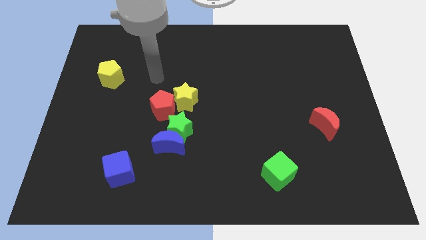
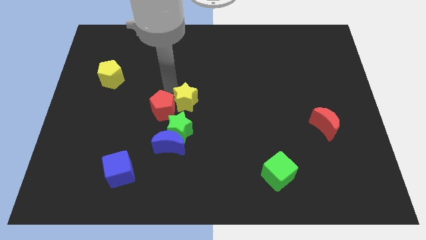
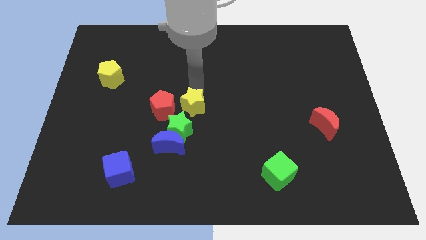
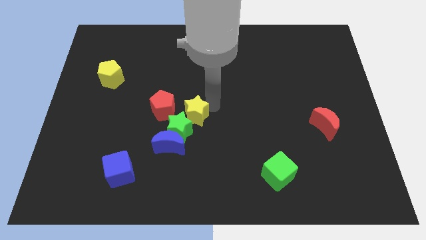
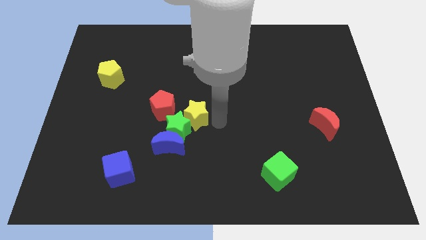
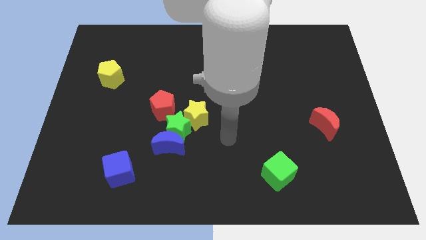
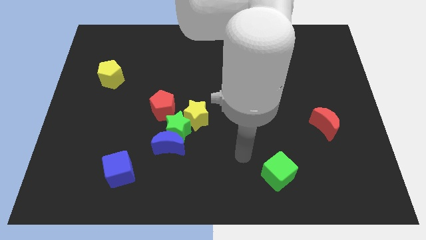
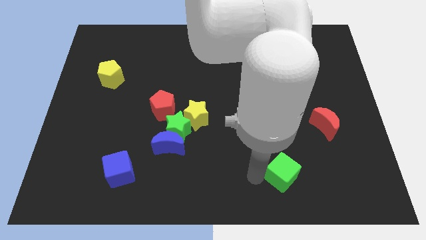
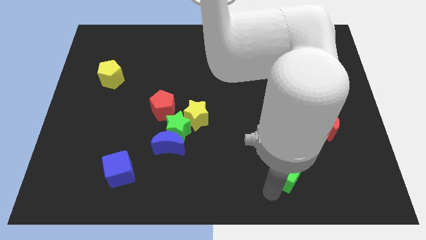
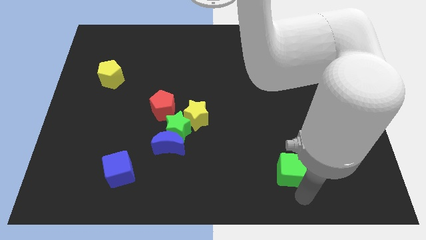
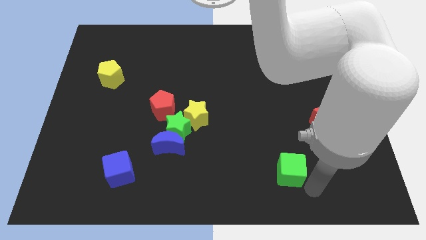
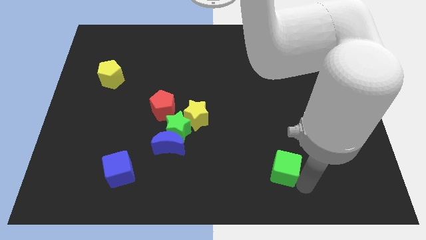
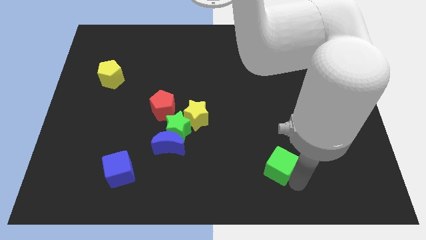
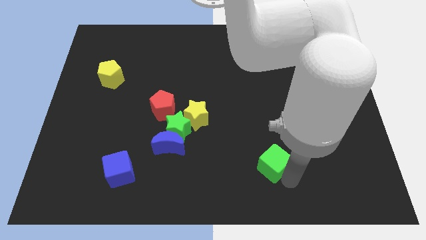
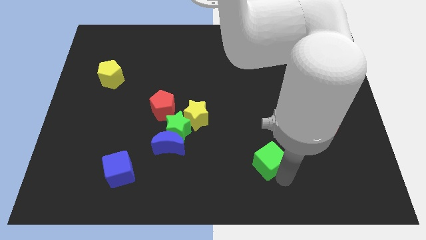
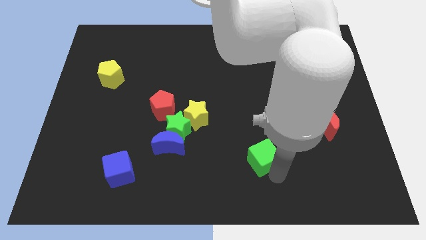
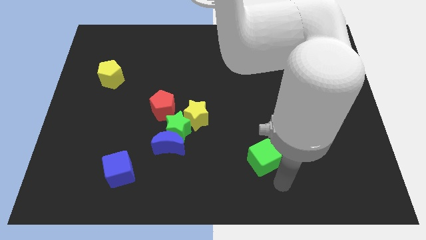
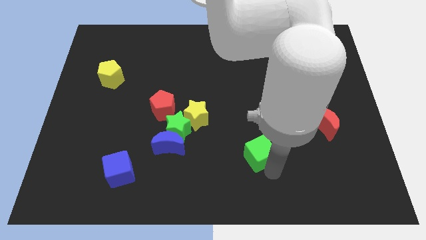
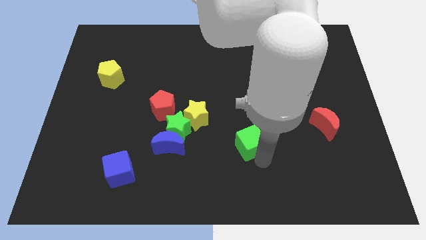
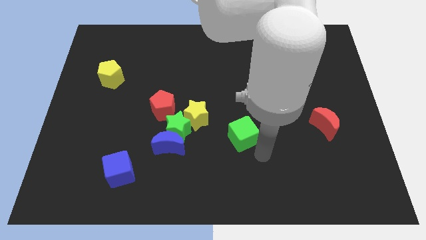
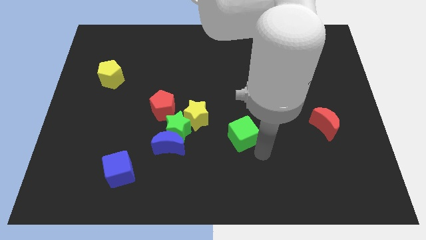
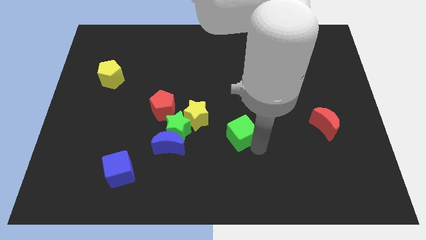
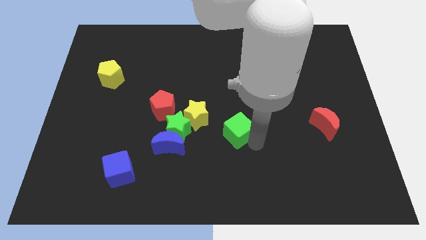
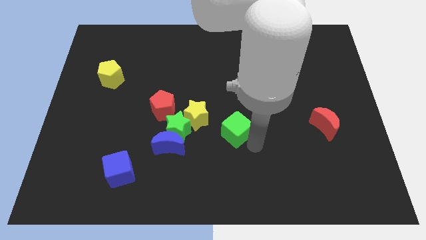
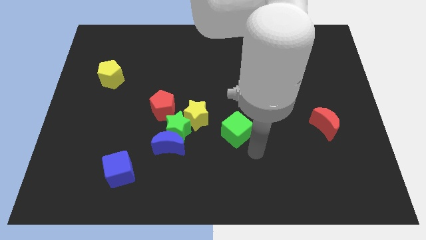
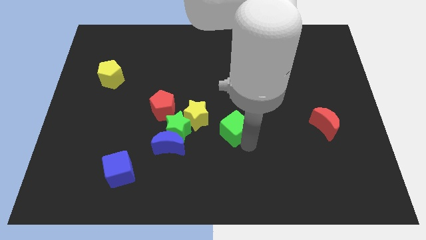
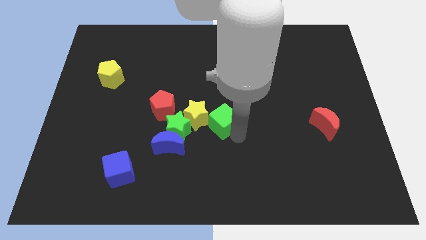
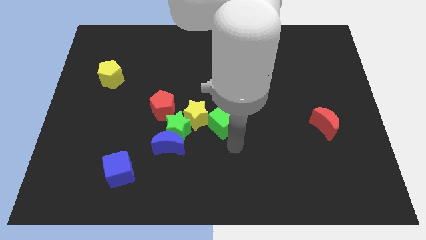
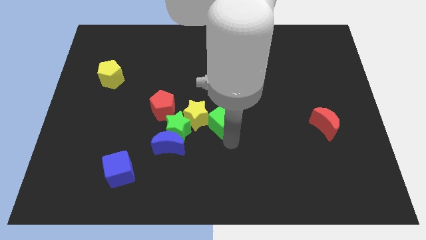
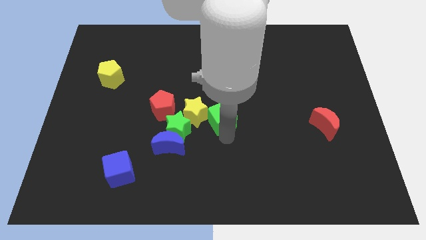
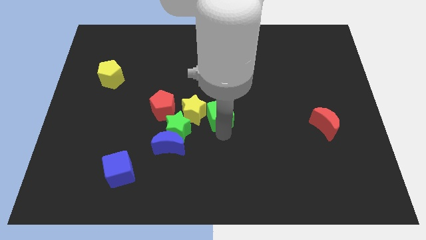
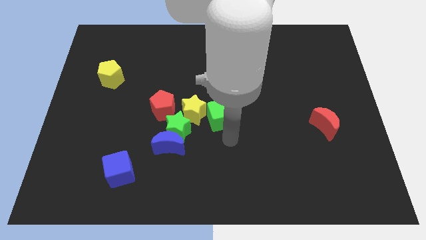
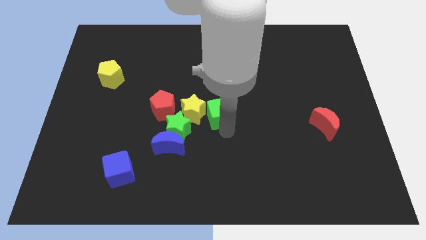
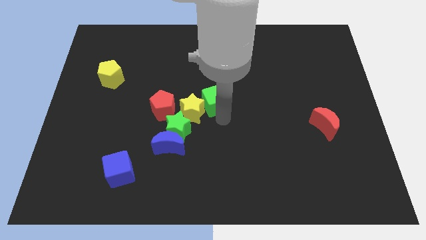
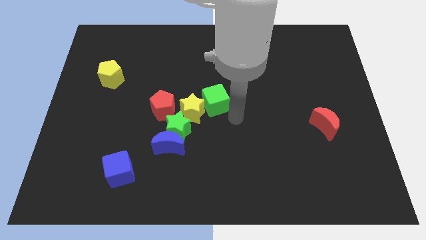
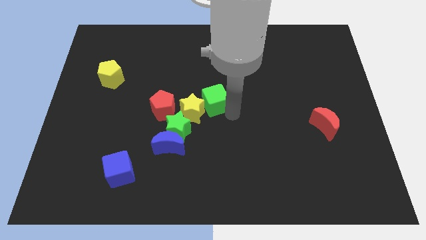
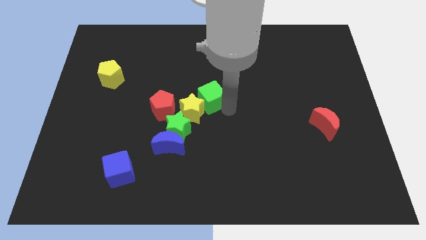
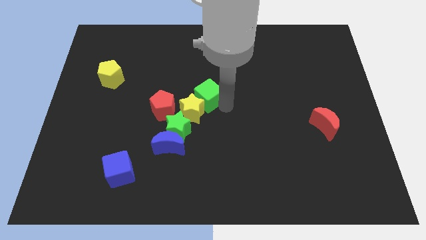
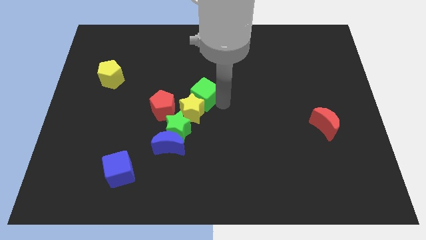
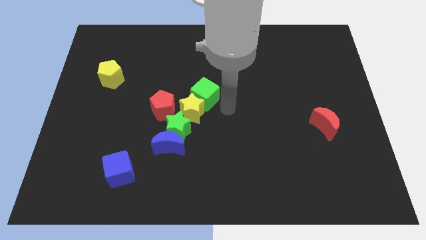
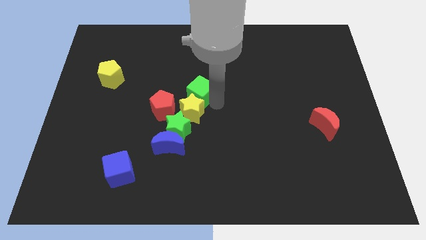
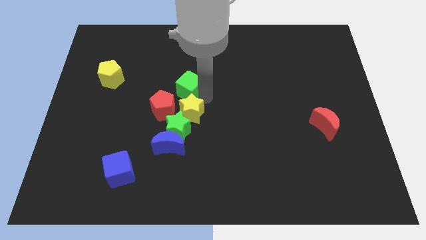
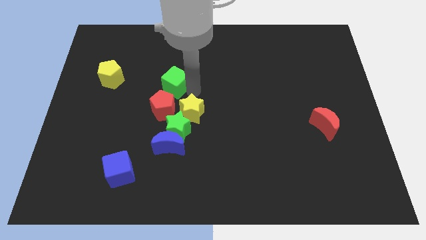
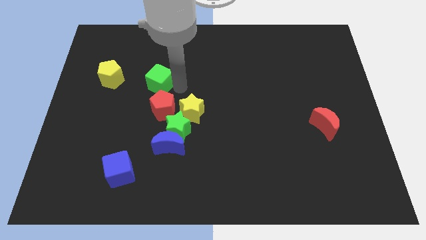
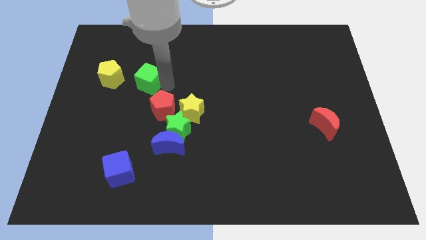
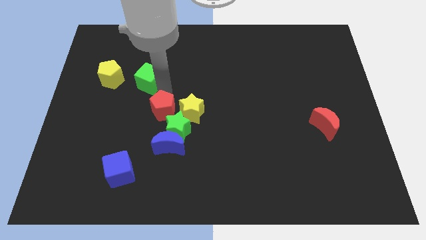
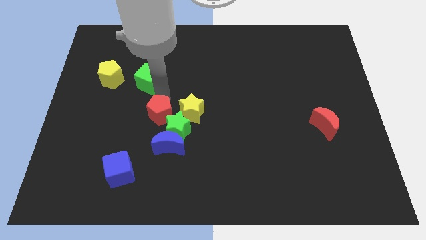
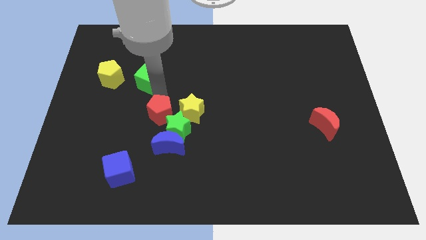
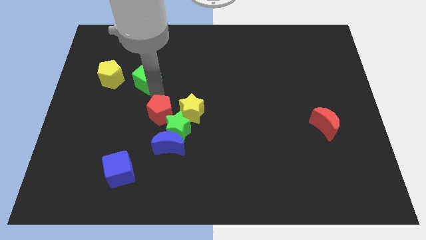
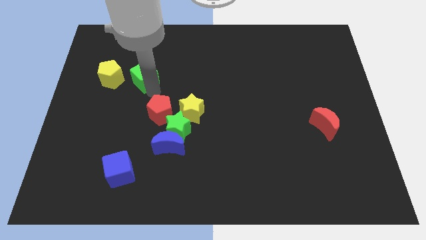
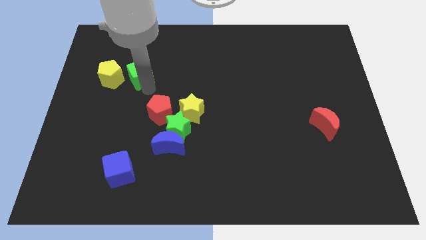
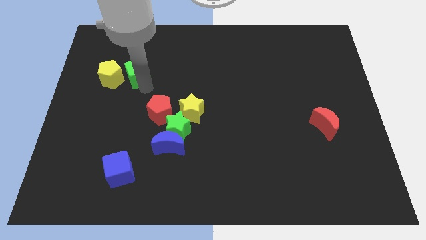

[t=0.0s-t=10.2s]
move the green cube to the top right side of the yellow pentagon

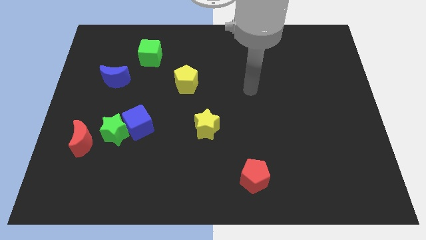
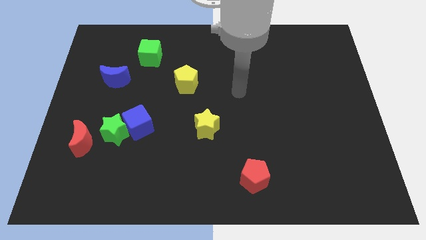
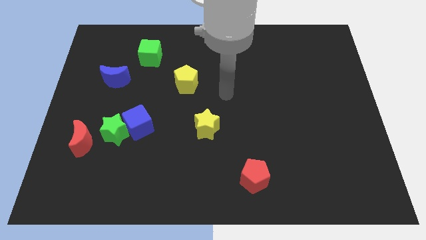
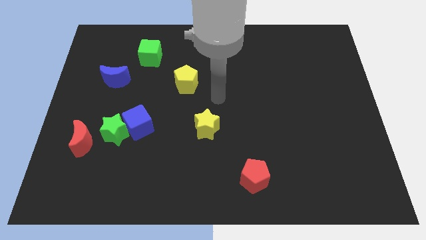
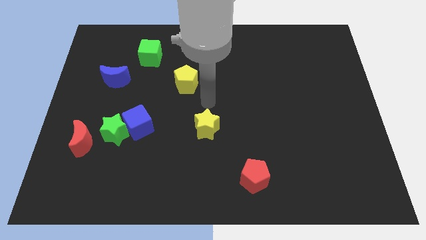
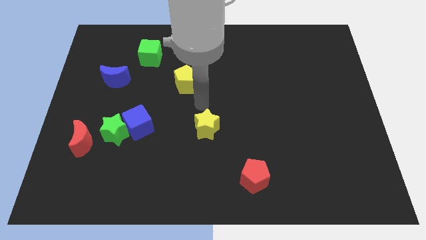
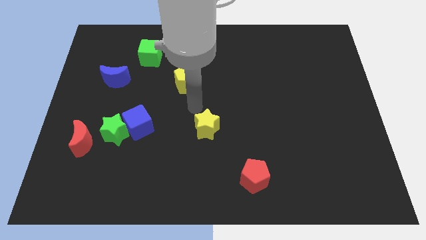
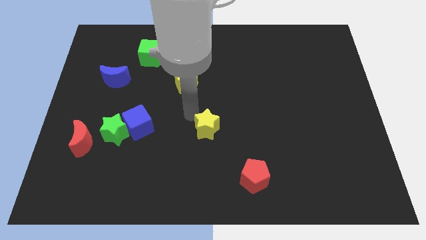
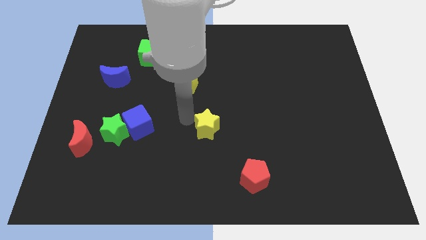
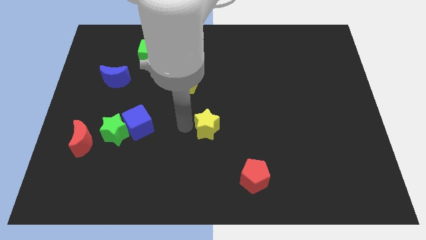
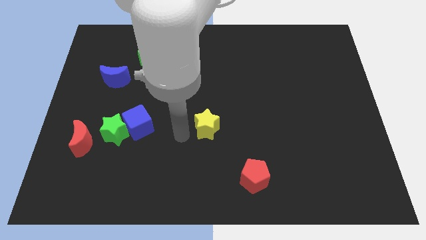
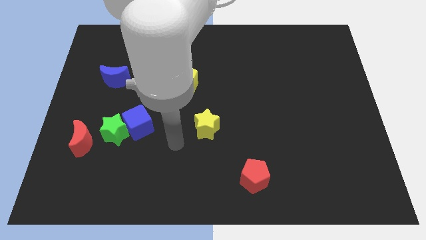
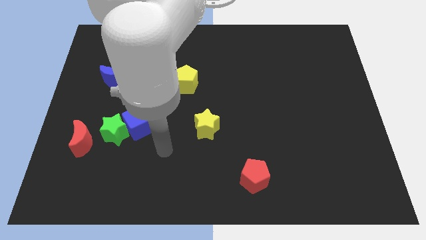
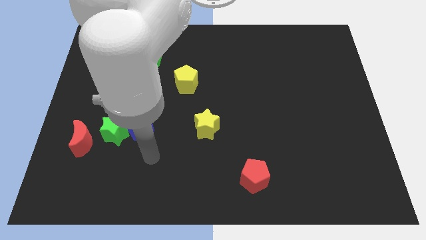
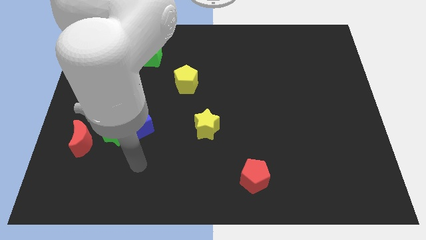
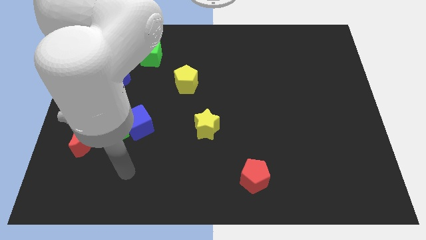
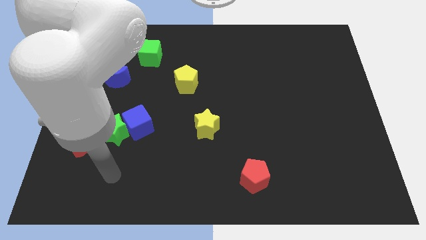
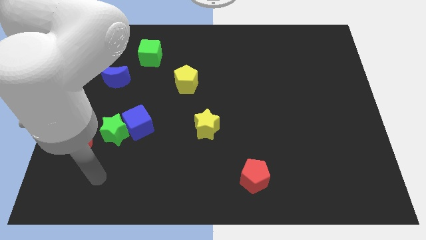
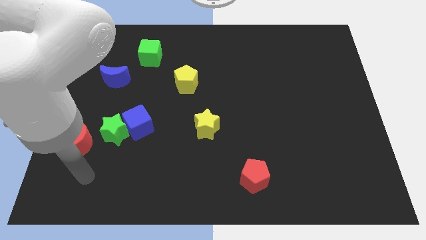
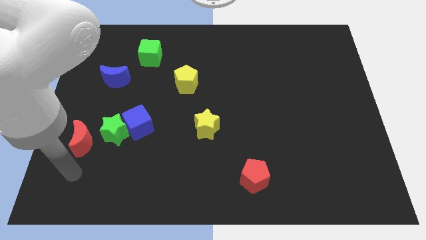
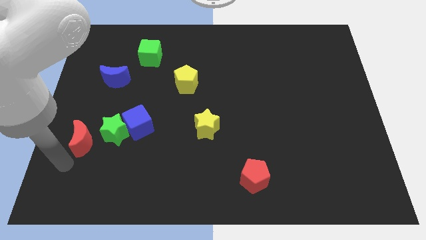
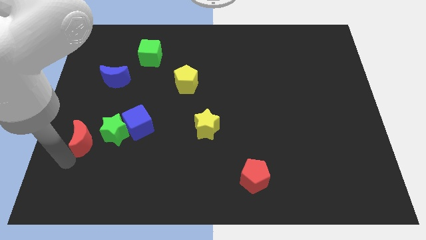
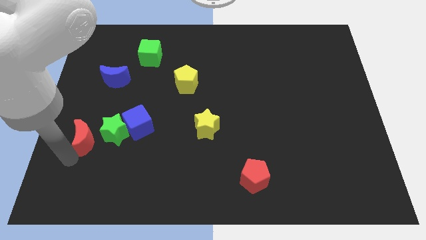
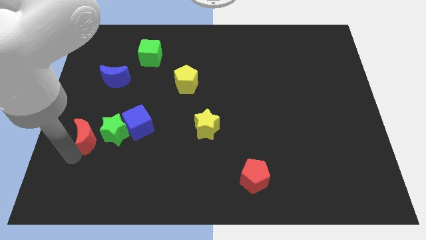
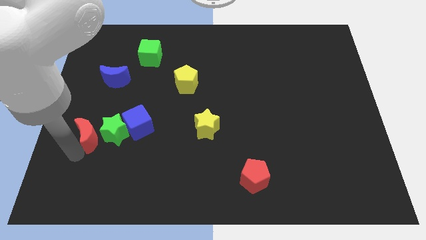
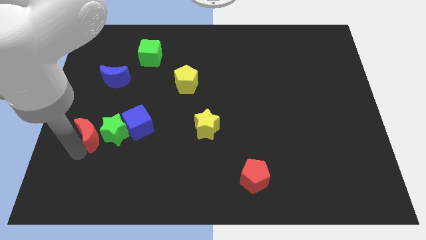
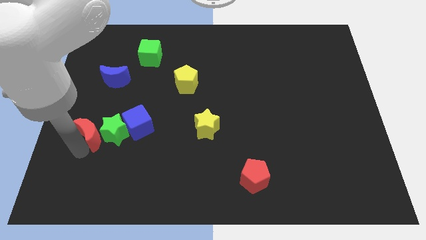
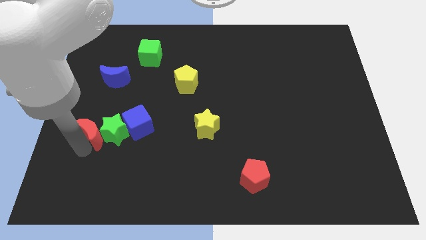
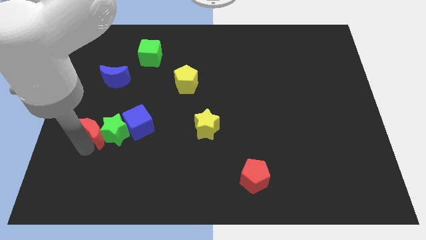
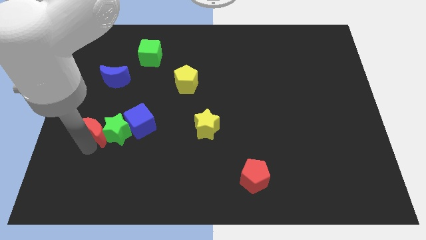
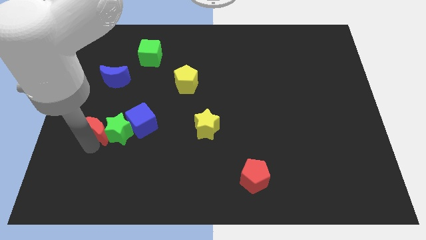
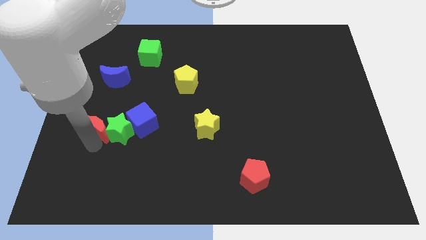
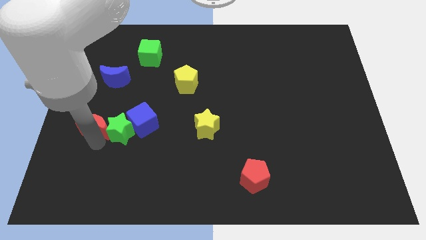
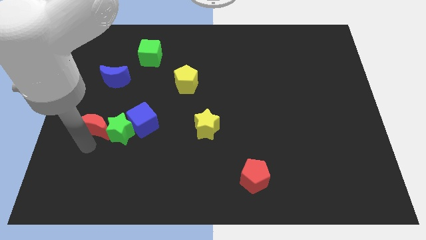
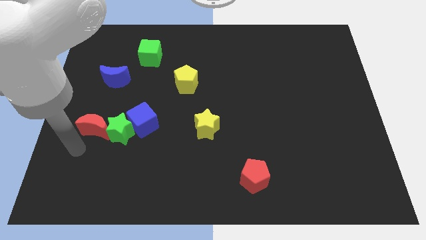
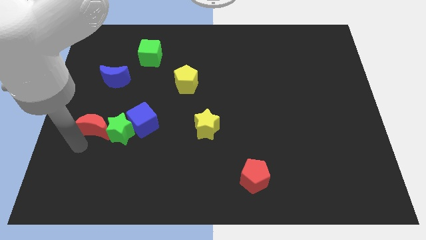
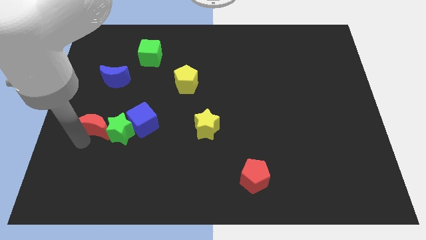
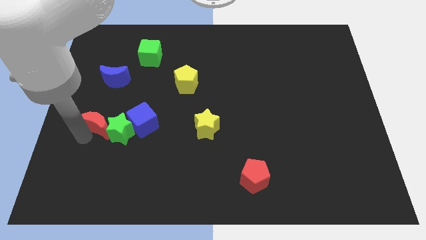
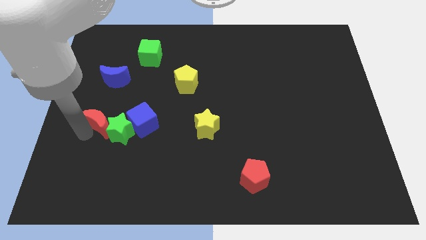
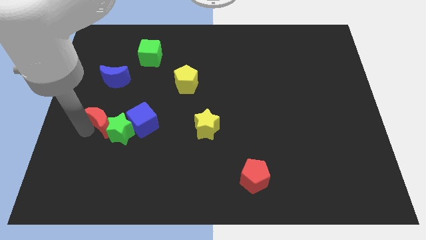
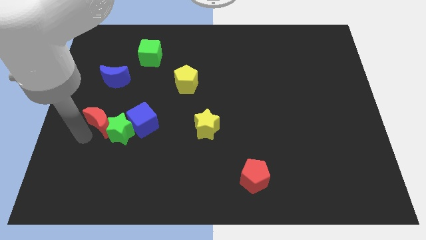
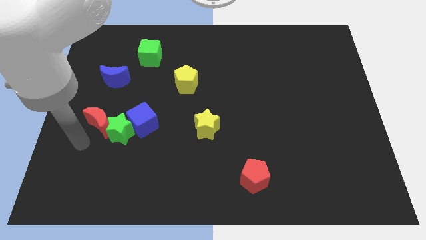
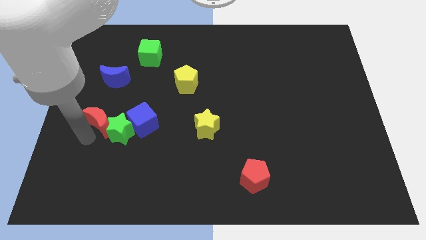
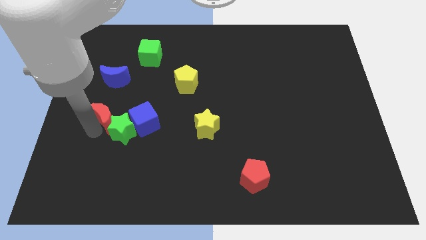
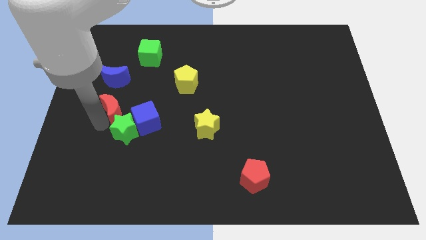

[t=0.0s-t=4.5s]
move the red moon to the top side of the green star
